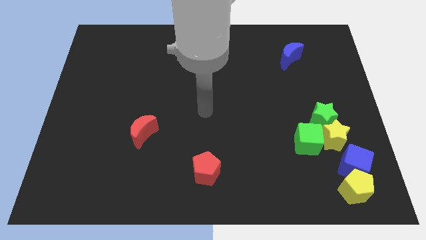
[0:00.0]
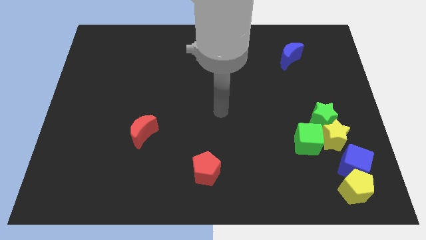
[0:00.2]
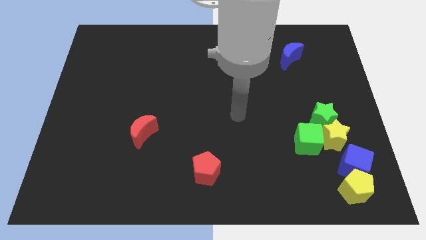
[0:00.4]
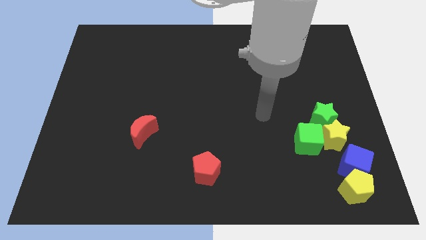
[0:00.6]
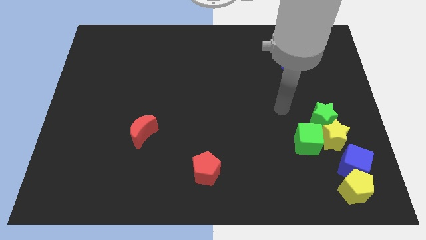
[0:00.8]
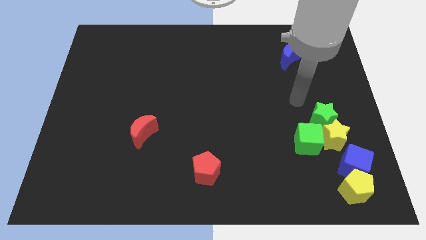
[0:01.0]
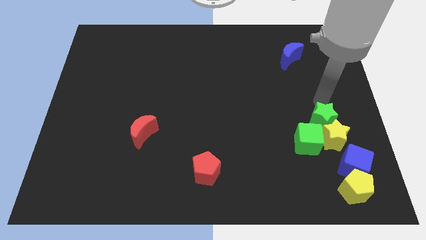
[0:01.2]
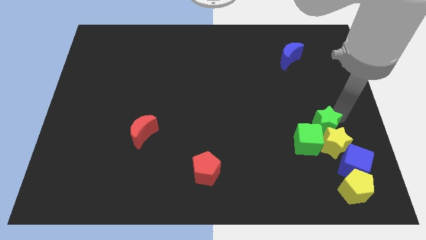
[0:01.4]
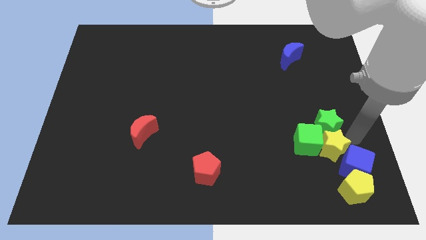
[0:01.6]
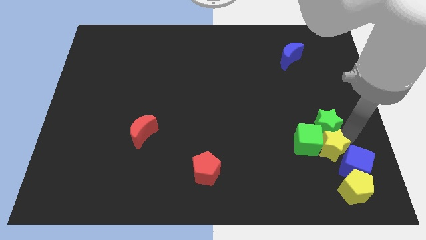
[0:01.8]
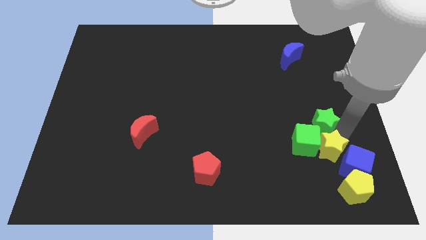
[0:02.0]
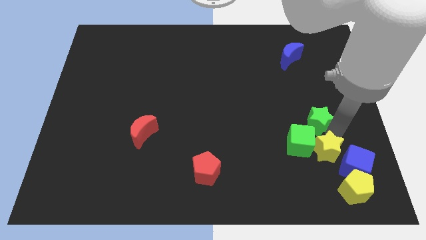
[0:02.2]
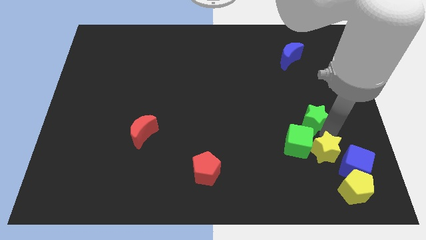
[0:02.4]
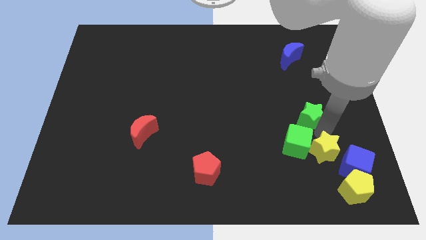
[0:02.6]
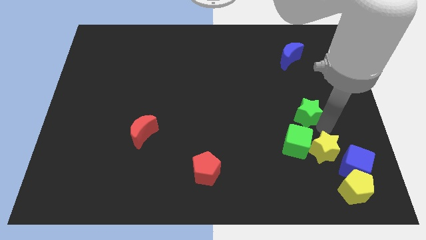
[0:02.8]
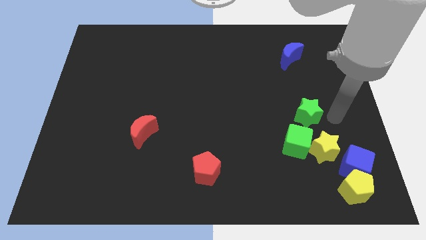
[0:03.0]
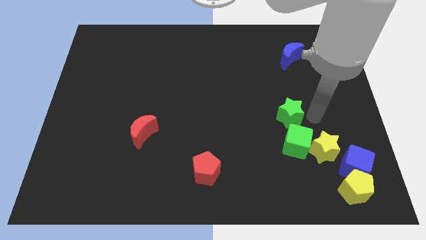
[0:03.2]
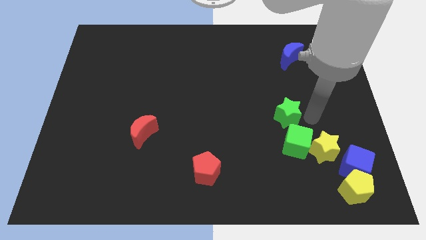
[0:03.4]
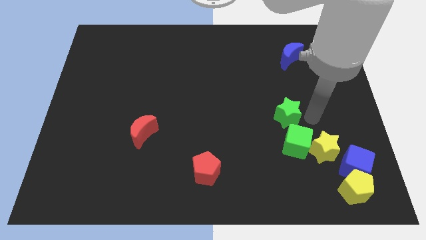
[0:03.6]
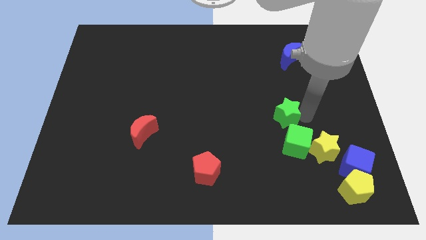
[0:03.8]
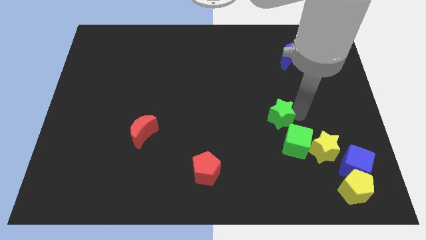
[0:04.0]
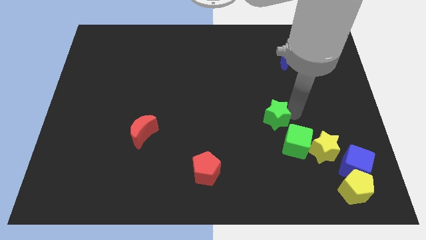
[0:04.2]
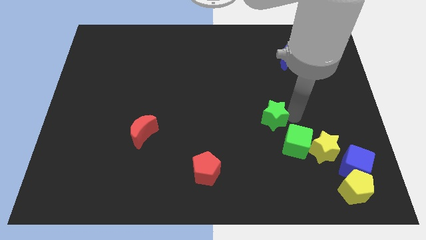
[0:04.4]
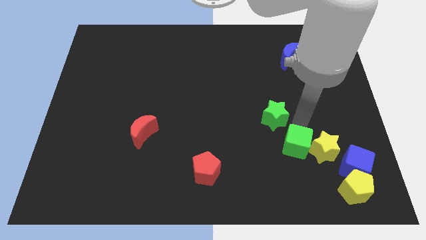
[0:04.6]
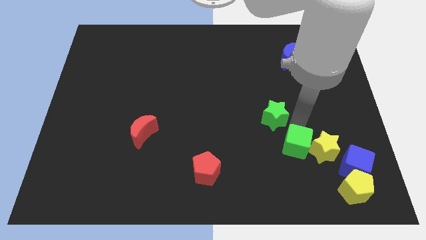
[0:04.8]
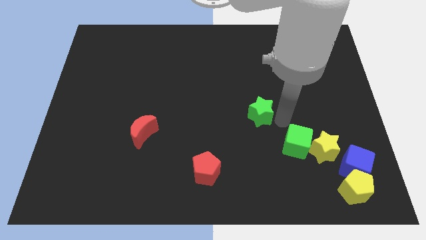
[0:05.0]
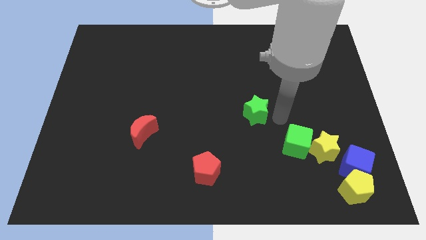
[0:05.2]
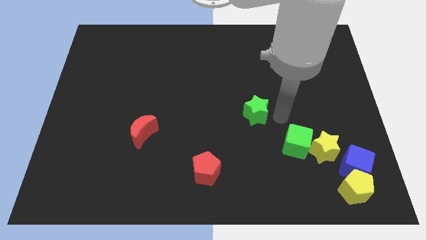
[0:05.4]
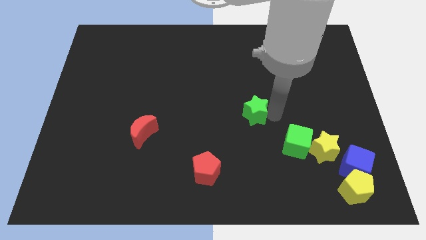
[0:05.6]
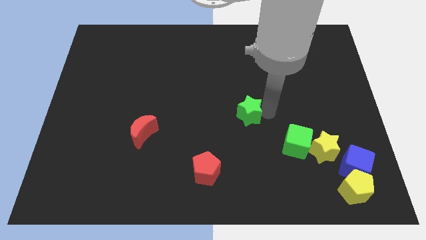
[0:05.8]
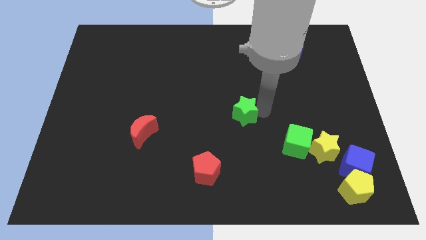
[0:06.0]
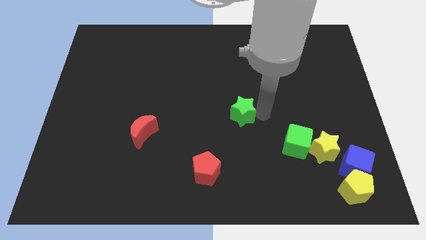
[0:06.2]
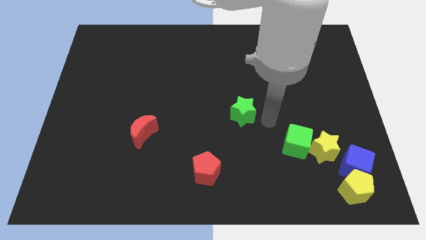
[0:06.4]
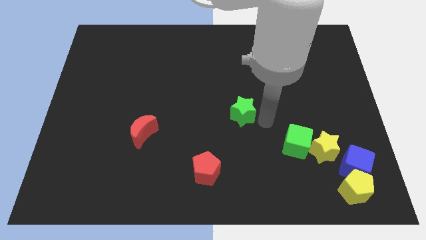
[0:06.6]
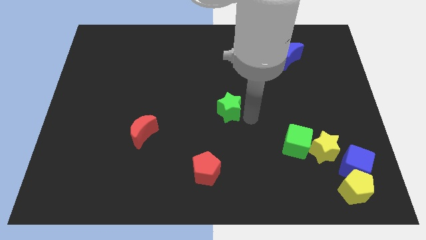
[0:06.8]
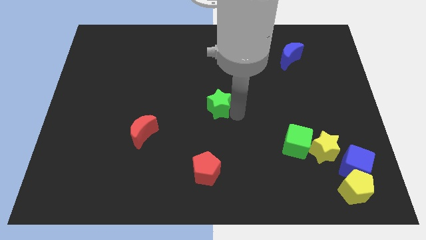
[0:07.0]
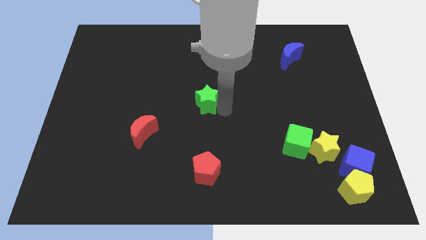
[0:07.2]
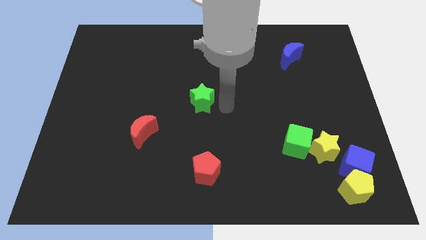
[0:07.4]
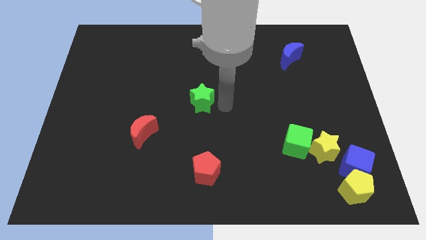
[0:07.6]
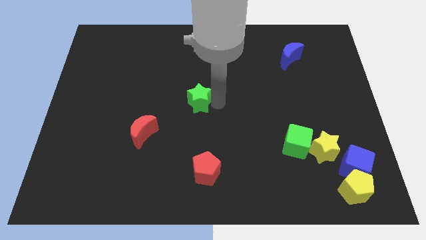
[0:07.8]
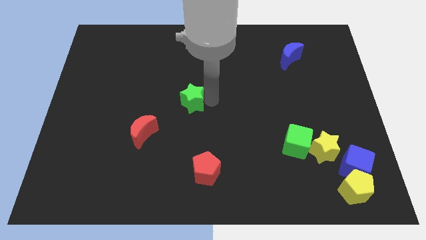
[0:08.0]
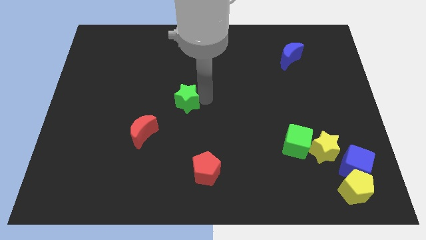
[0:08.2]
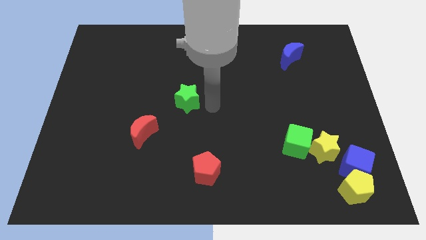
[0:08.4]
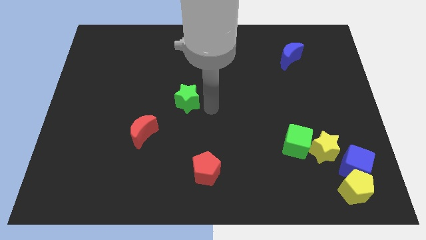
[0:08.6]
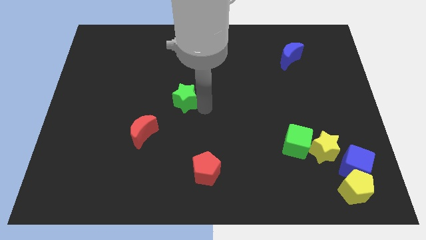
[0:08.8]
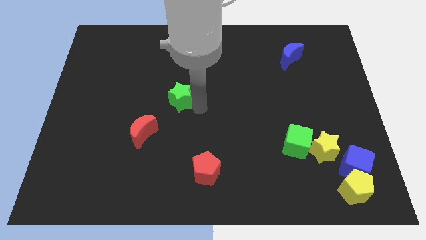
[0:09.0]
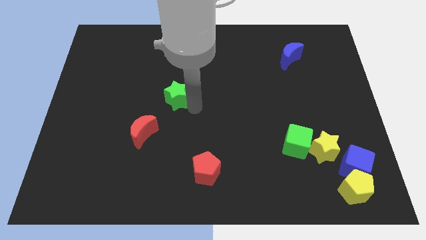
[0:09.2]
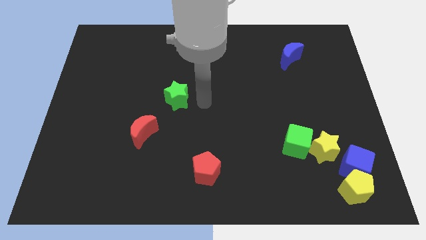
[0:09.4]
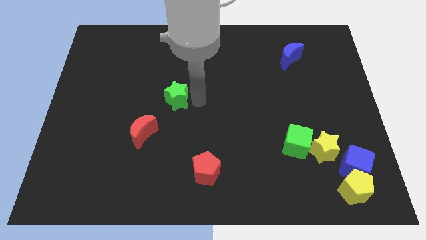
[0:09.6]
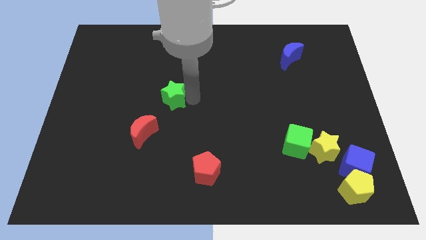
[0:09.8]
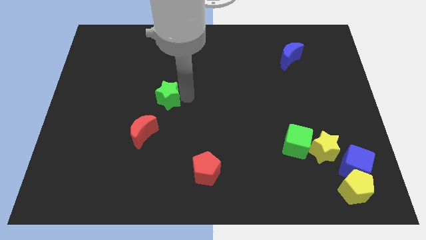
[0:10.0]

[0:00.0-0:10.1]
push the green star to the top side of the red moon

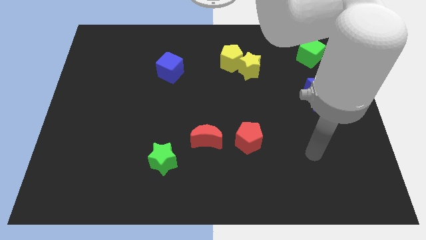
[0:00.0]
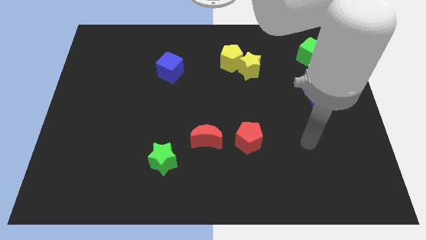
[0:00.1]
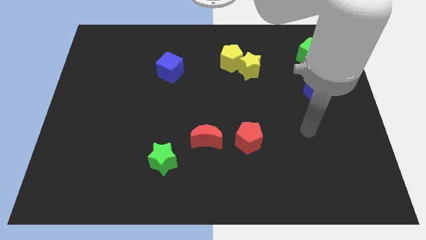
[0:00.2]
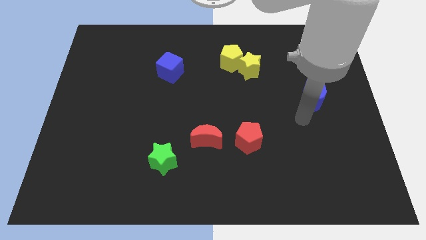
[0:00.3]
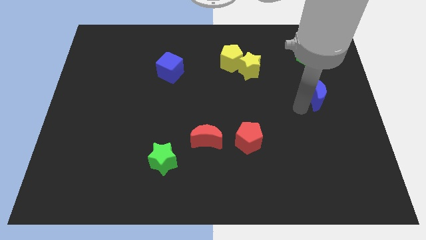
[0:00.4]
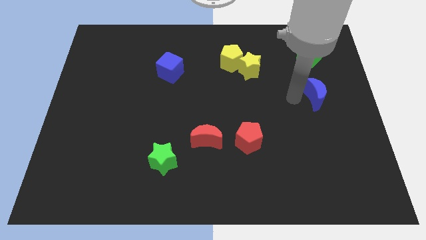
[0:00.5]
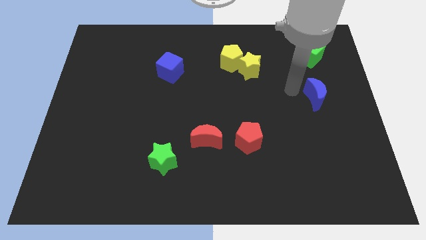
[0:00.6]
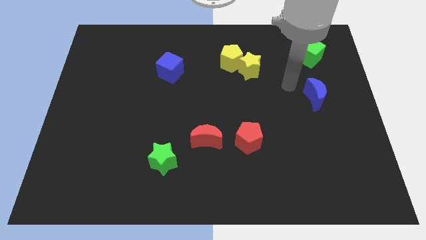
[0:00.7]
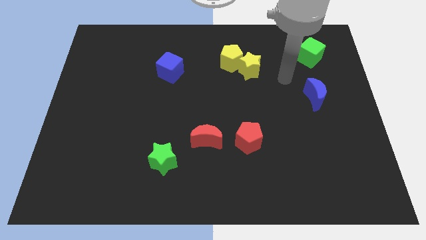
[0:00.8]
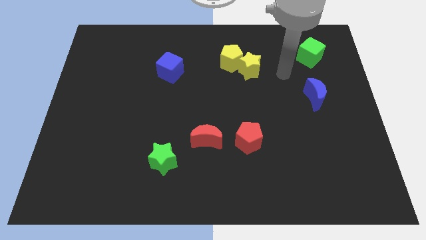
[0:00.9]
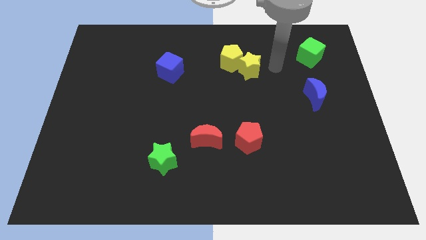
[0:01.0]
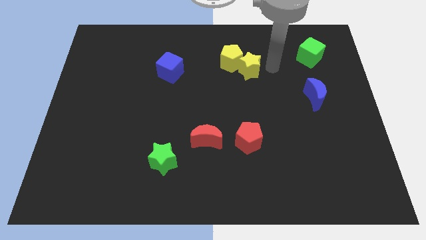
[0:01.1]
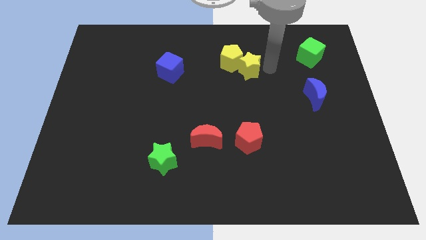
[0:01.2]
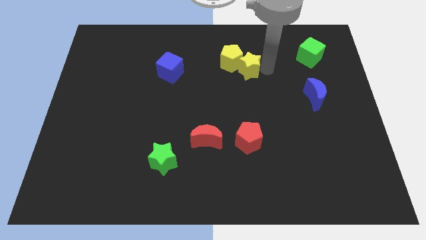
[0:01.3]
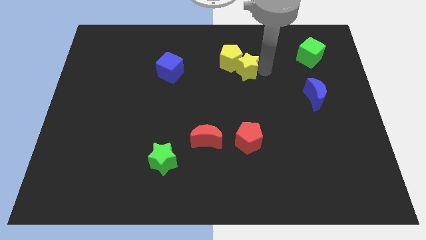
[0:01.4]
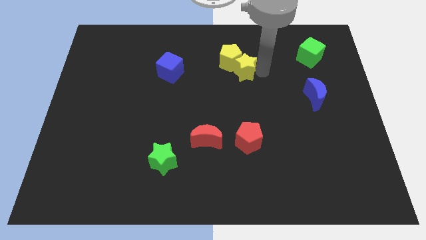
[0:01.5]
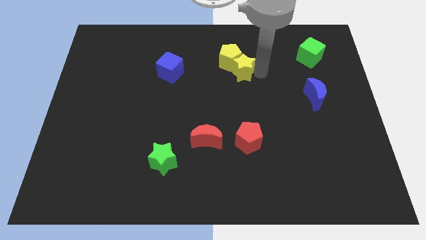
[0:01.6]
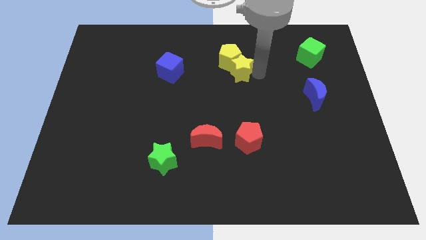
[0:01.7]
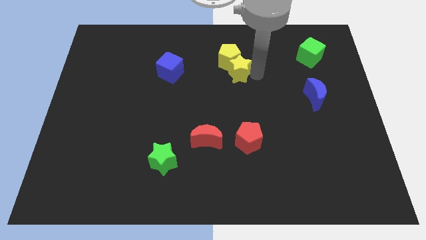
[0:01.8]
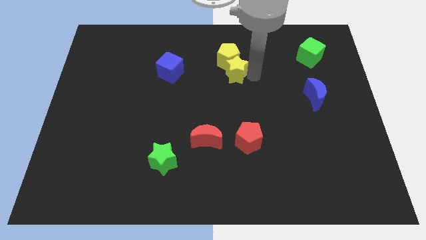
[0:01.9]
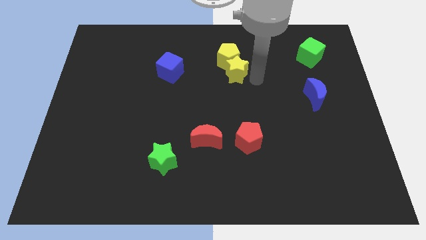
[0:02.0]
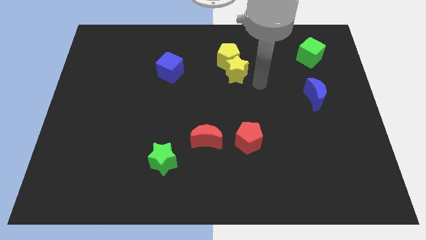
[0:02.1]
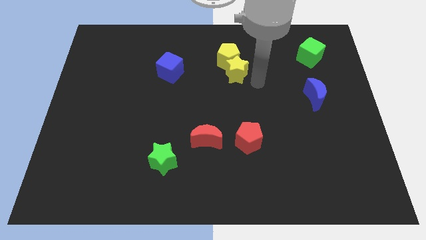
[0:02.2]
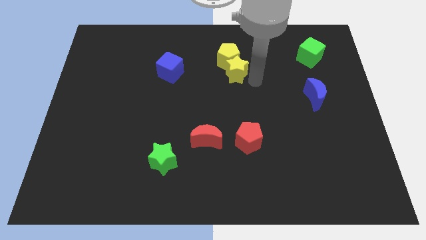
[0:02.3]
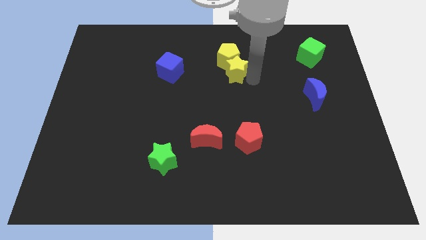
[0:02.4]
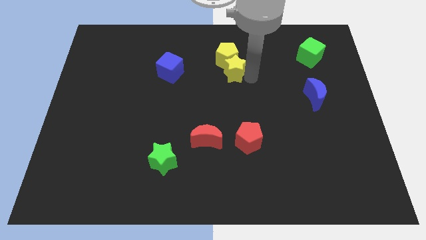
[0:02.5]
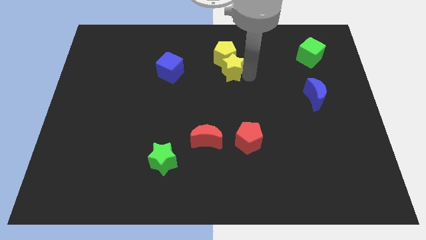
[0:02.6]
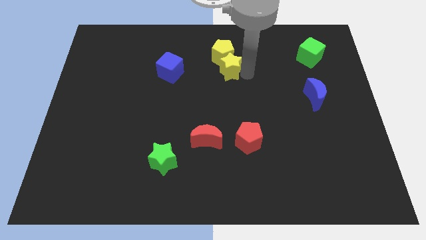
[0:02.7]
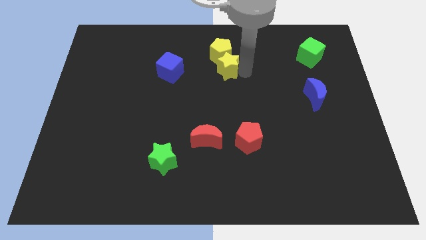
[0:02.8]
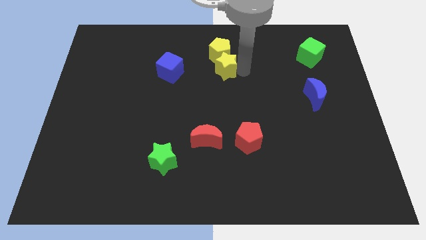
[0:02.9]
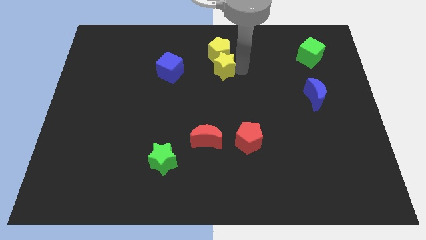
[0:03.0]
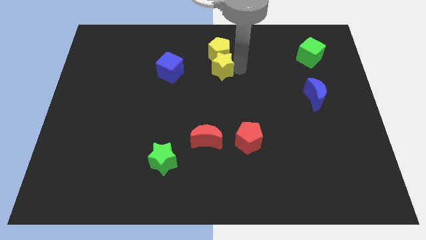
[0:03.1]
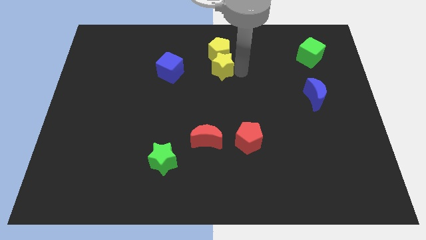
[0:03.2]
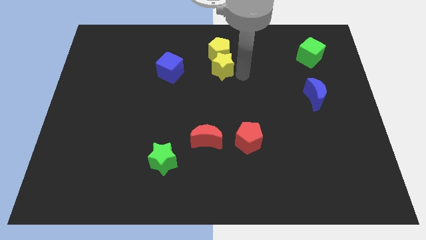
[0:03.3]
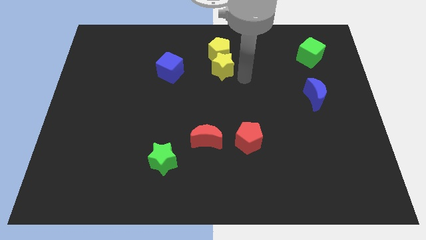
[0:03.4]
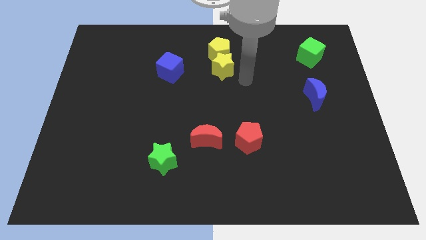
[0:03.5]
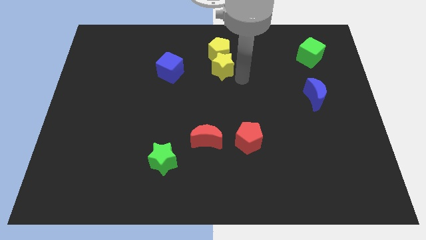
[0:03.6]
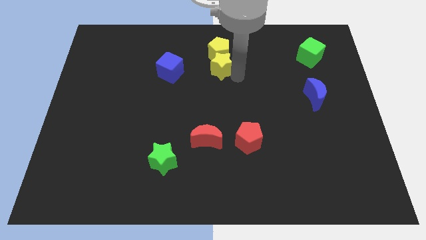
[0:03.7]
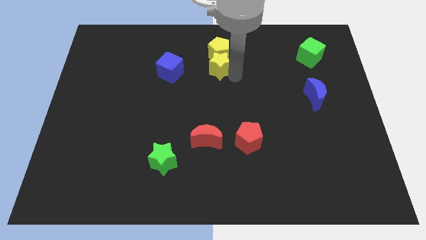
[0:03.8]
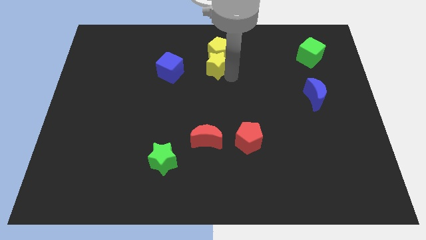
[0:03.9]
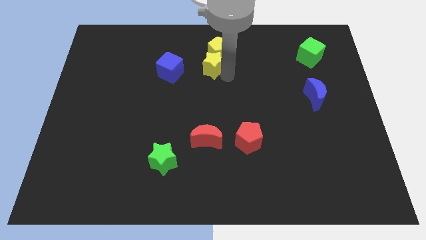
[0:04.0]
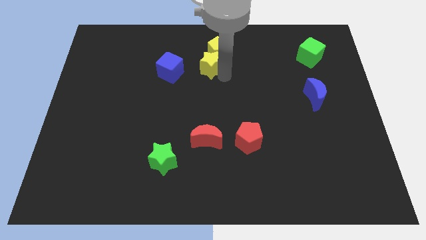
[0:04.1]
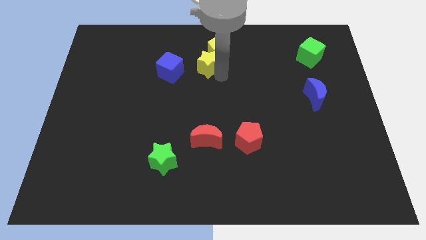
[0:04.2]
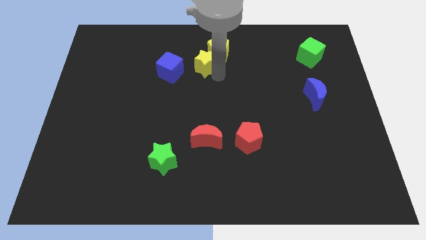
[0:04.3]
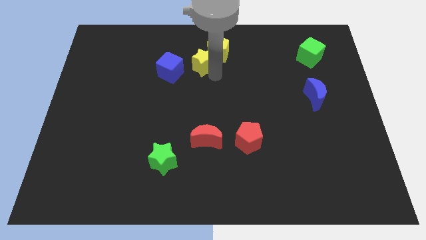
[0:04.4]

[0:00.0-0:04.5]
push the yellow star diagonally up and to the right of the blue cube
